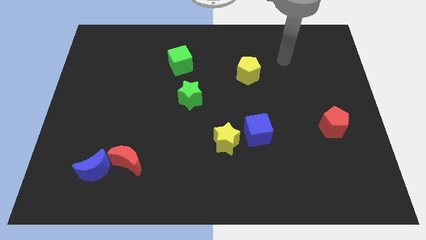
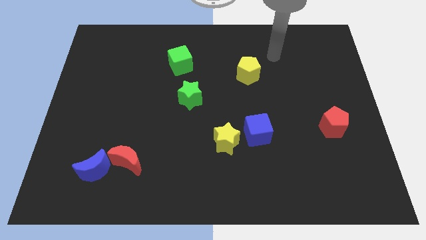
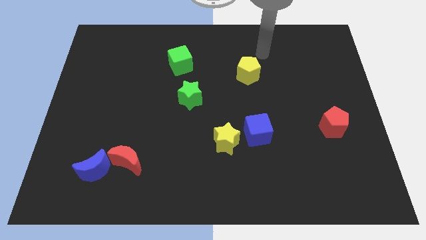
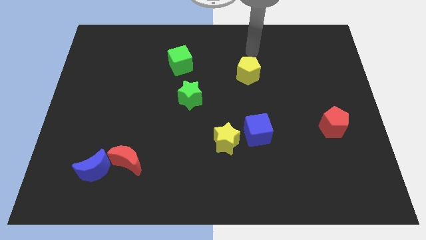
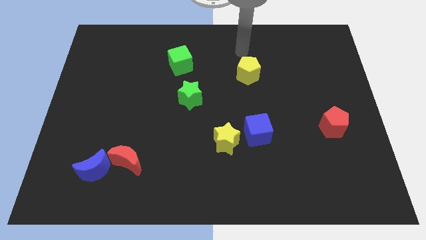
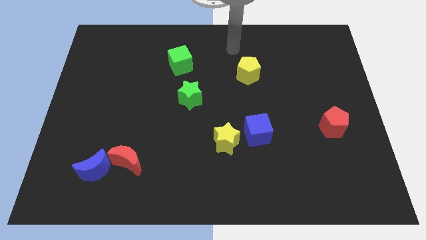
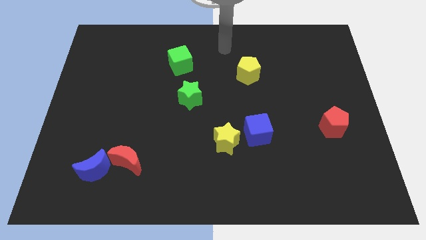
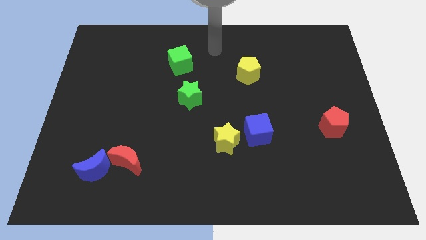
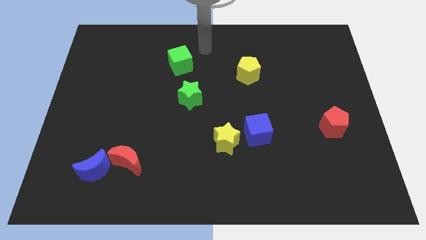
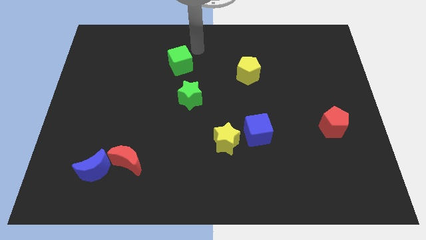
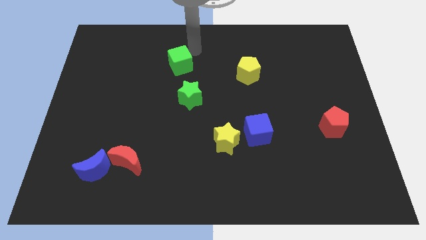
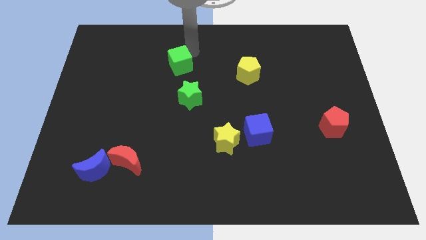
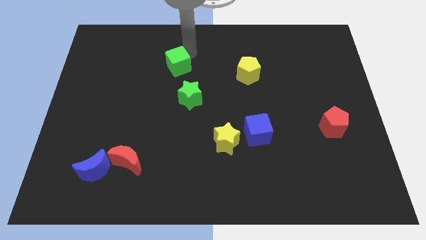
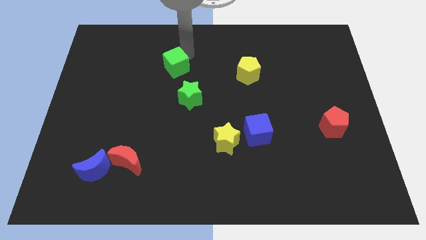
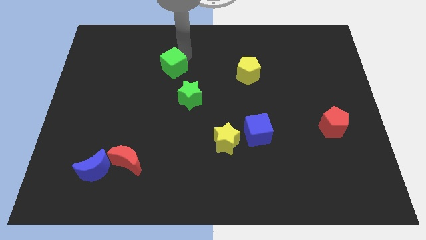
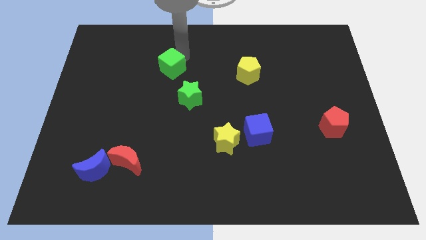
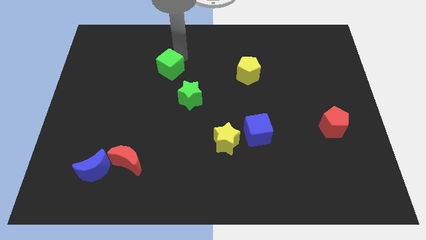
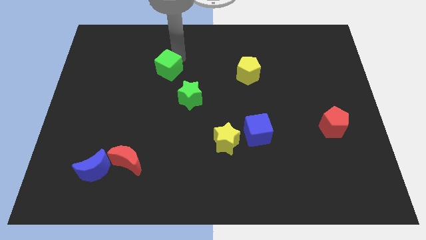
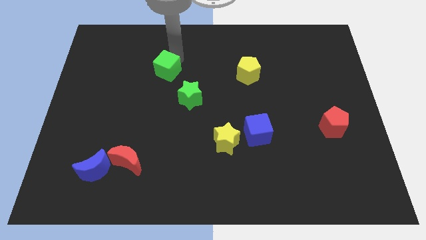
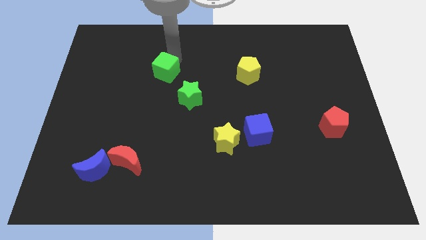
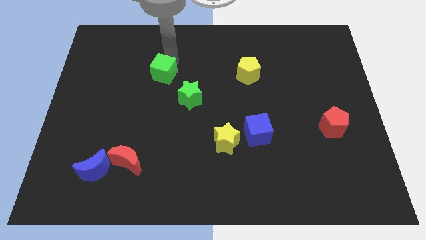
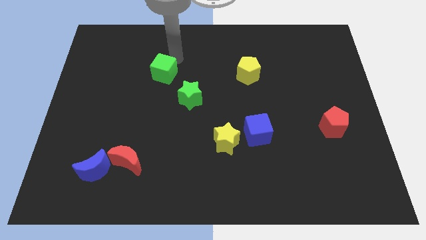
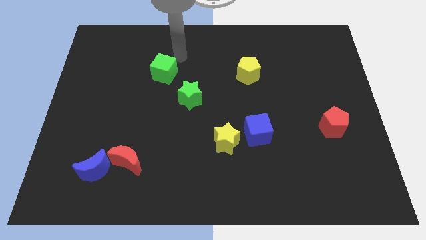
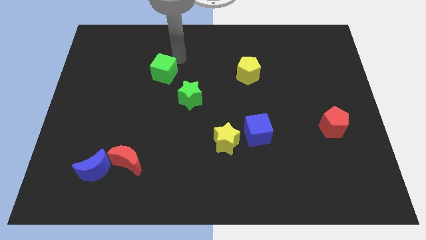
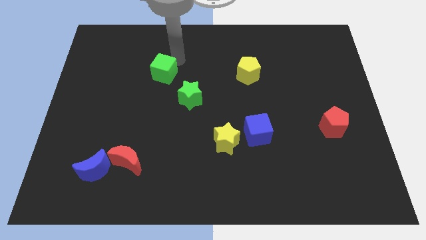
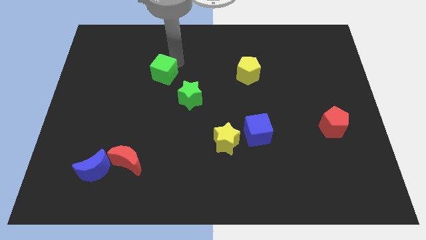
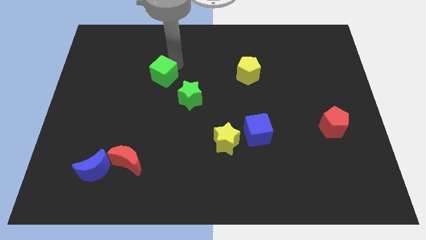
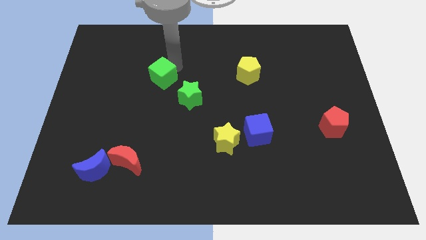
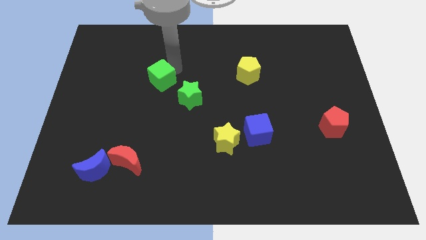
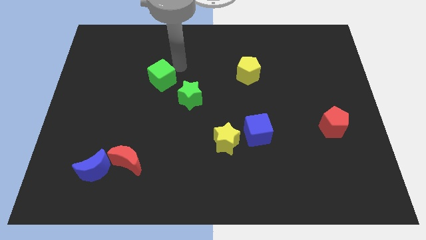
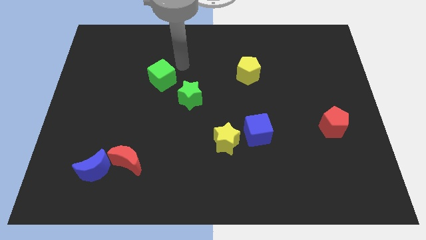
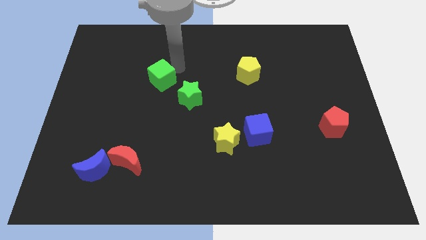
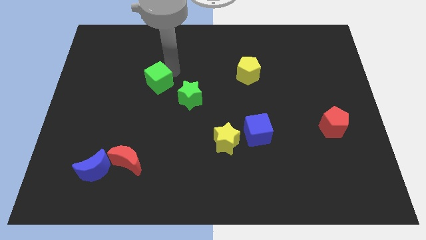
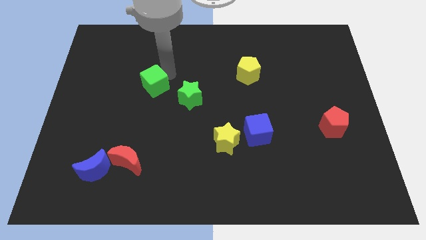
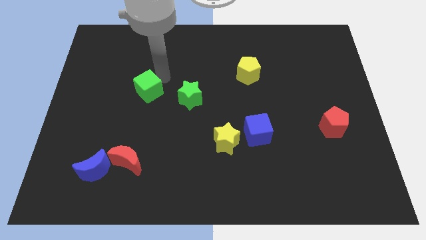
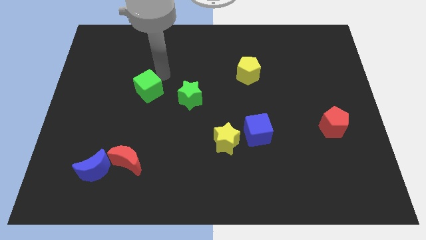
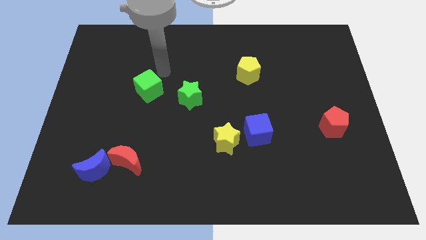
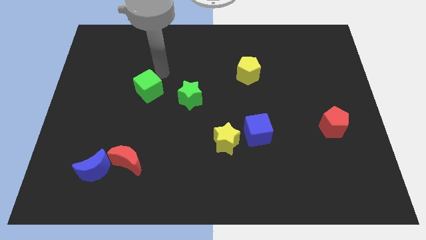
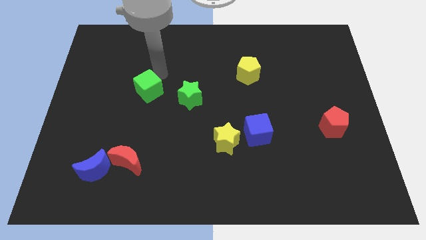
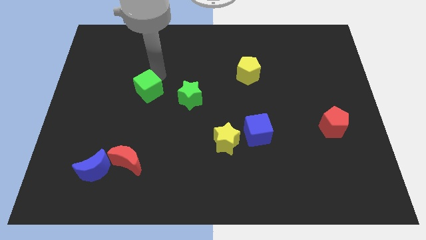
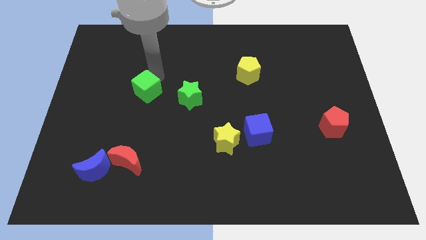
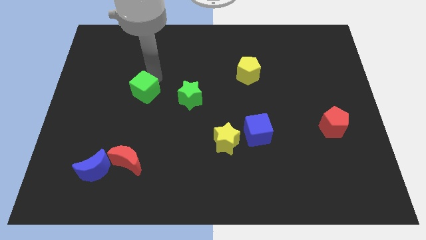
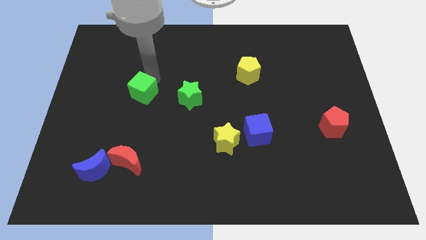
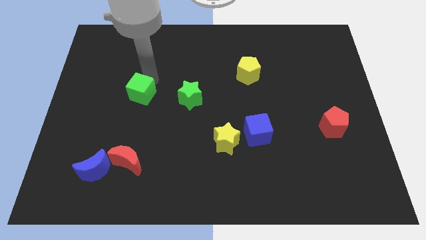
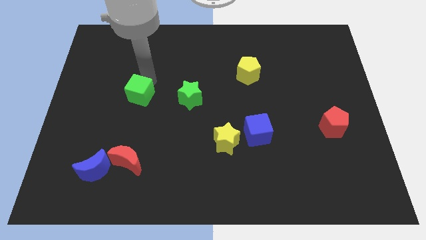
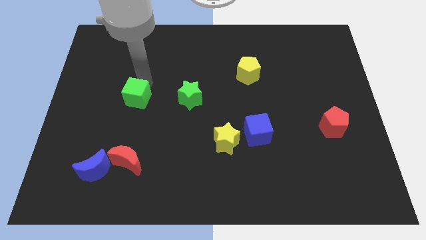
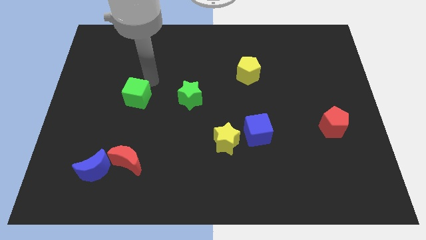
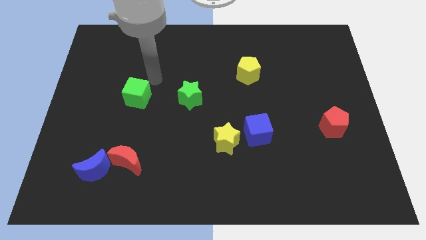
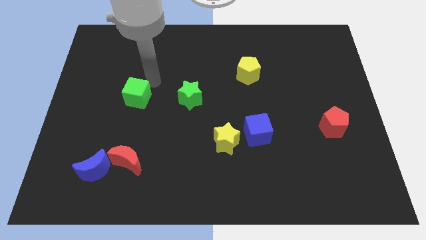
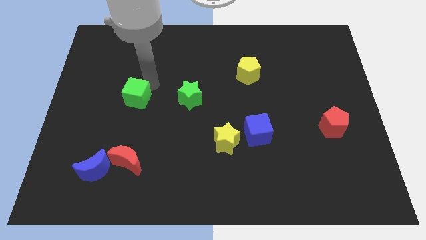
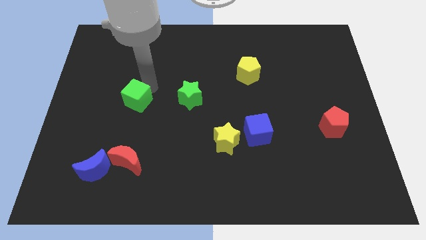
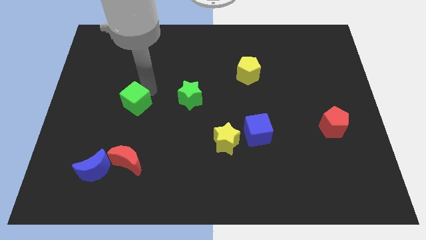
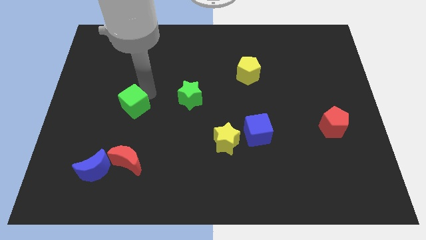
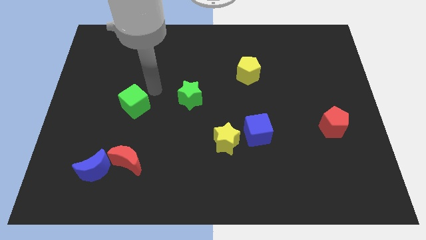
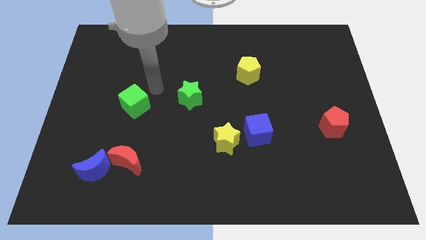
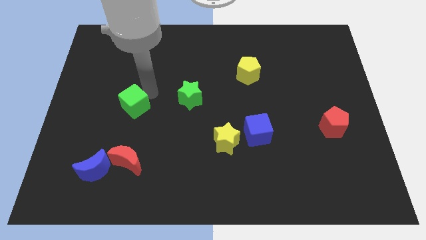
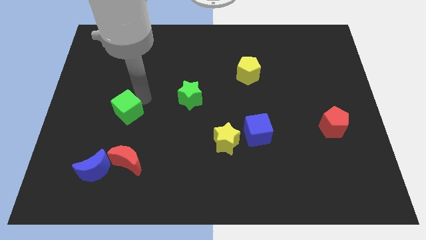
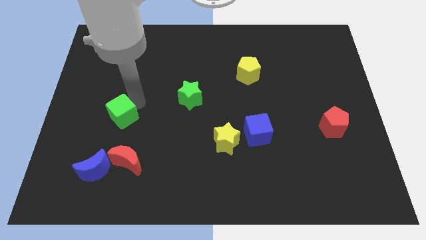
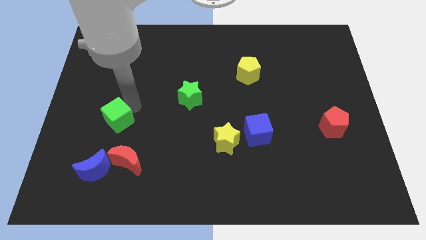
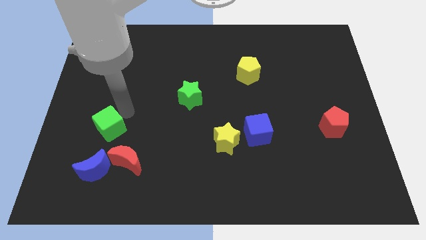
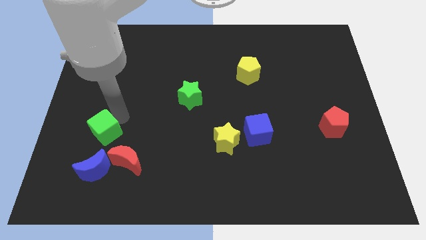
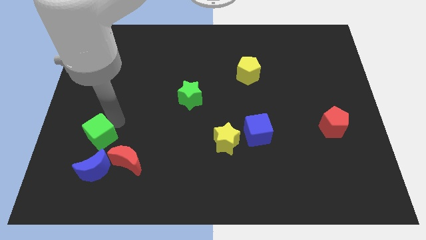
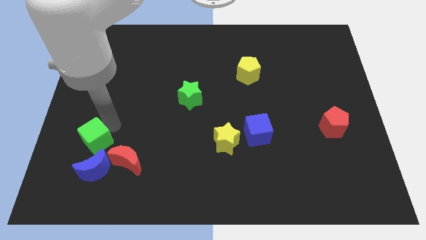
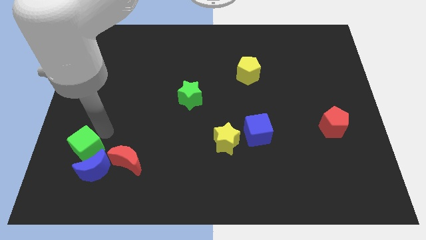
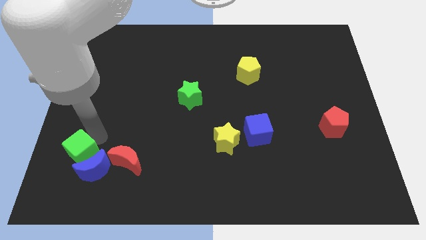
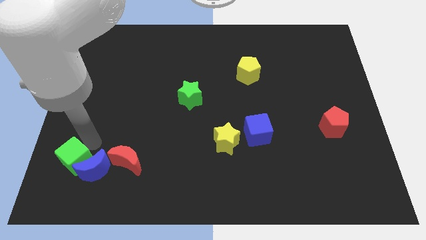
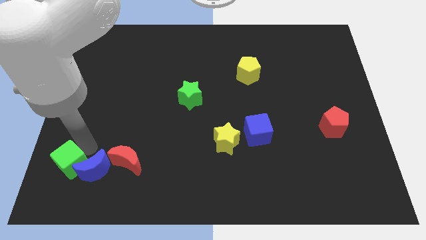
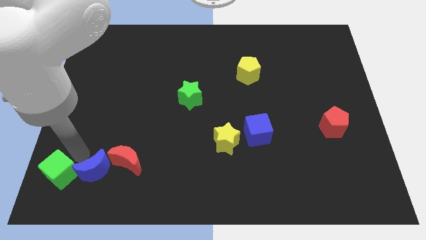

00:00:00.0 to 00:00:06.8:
put the green cube to the bottom left of the board
